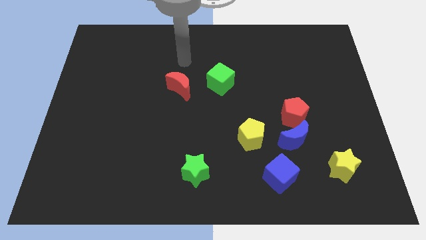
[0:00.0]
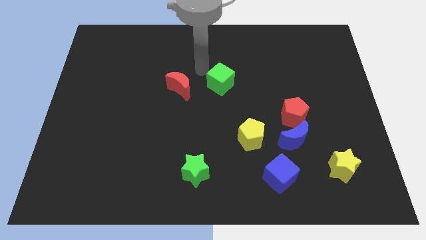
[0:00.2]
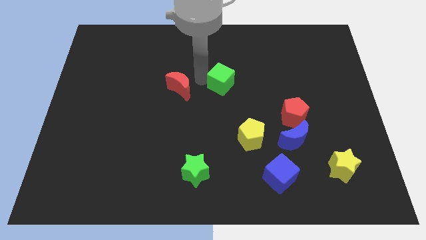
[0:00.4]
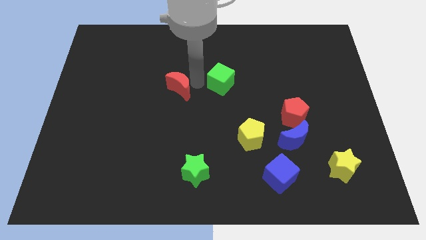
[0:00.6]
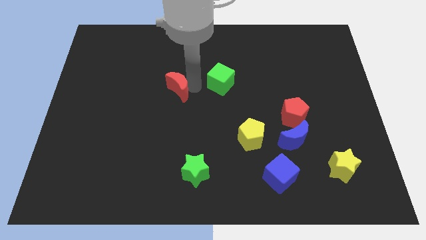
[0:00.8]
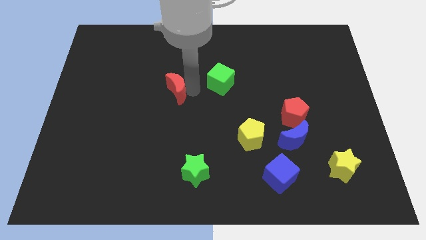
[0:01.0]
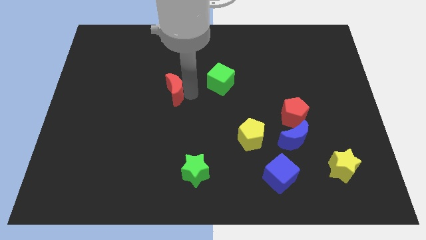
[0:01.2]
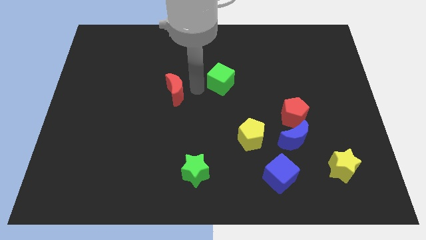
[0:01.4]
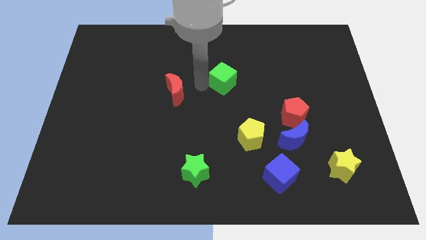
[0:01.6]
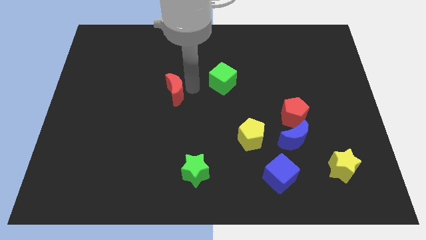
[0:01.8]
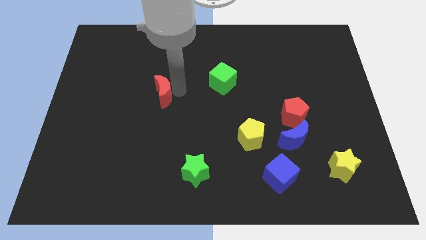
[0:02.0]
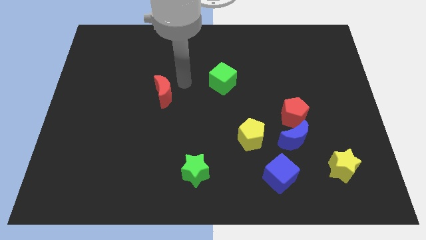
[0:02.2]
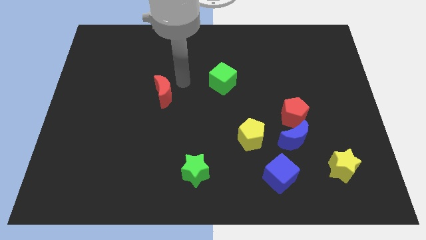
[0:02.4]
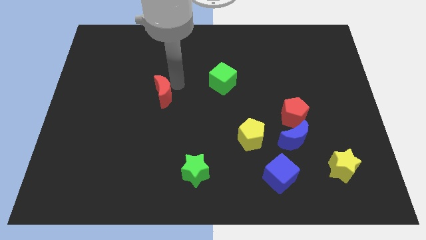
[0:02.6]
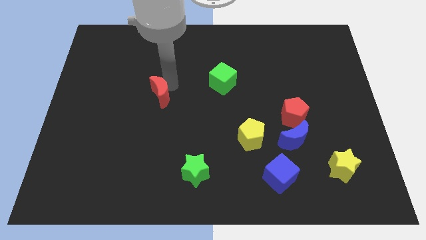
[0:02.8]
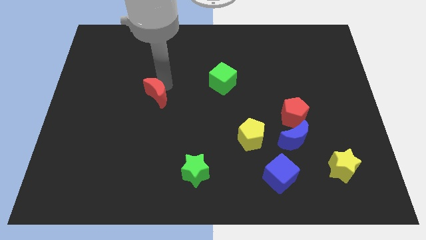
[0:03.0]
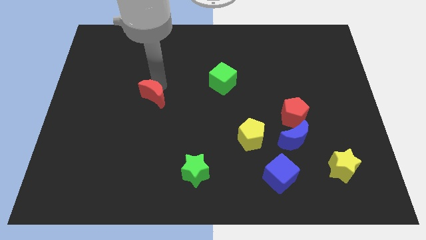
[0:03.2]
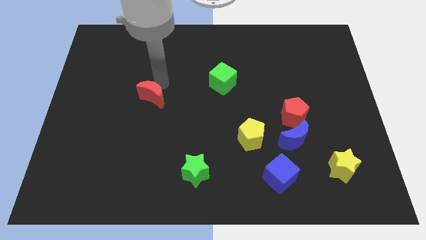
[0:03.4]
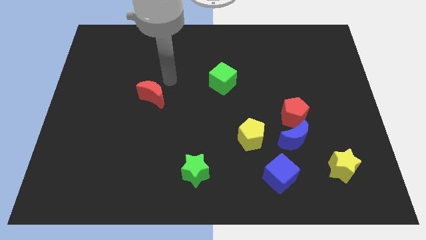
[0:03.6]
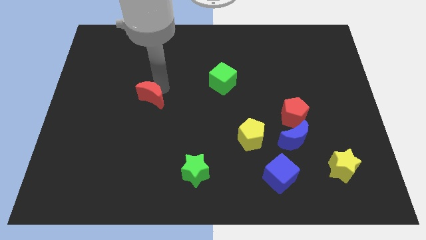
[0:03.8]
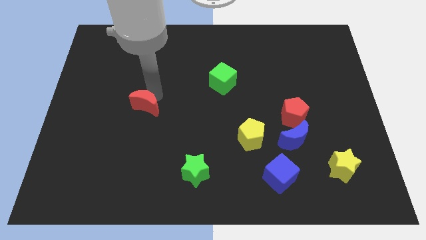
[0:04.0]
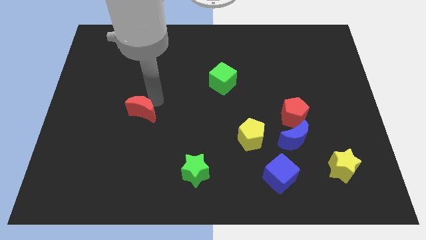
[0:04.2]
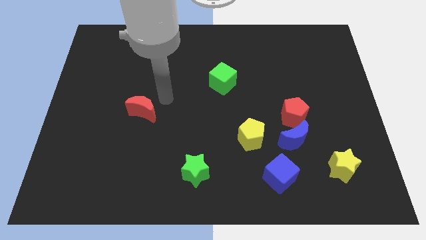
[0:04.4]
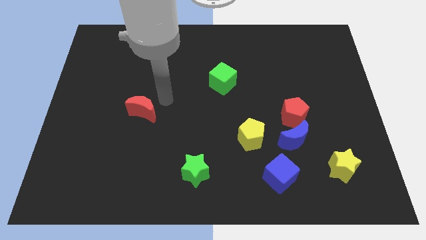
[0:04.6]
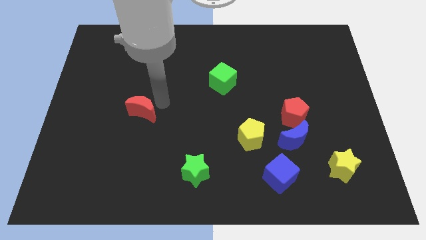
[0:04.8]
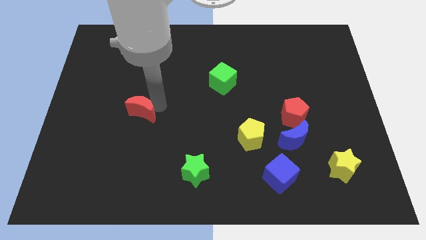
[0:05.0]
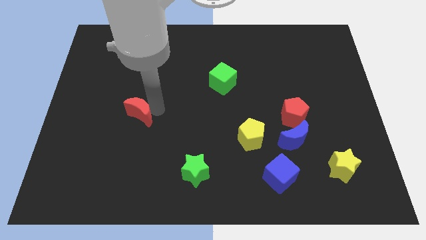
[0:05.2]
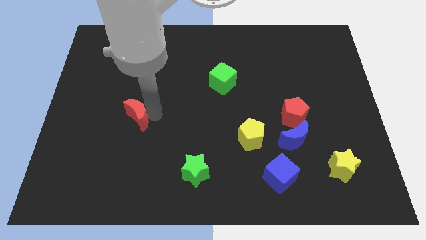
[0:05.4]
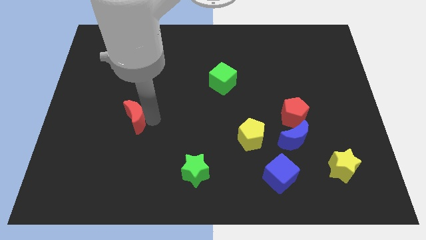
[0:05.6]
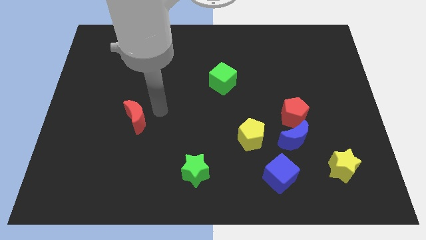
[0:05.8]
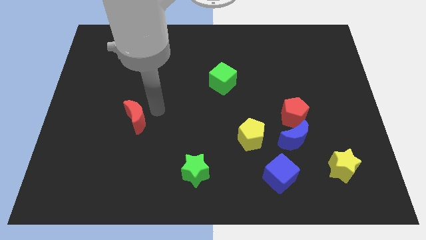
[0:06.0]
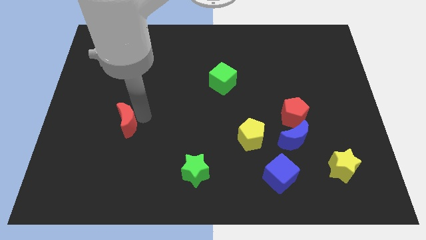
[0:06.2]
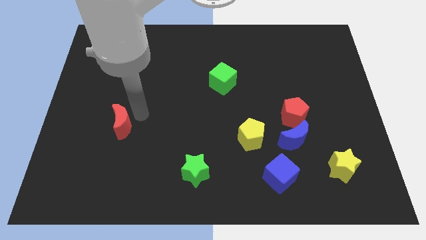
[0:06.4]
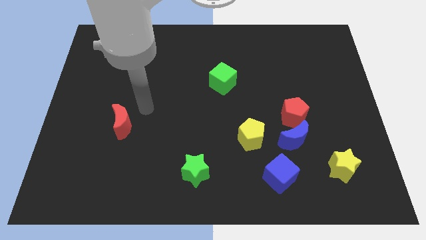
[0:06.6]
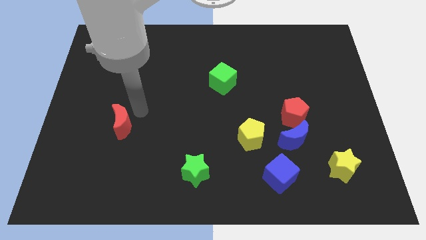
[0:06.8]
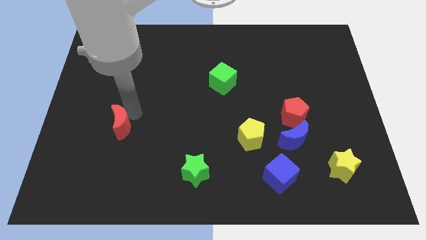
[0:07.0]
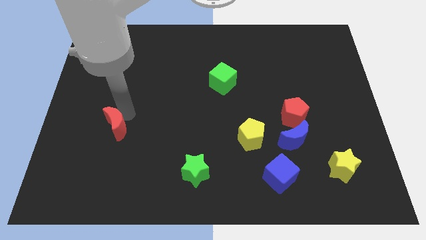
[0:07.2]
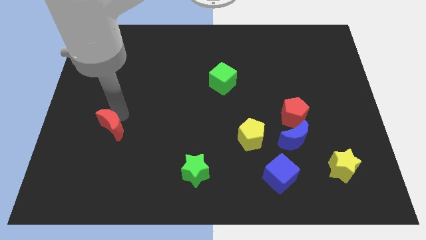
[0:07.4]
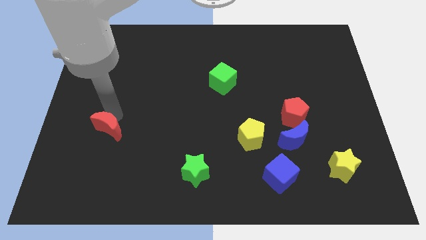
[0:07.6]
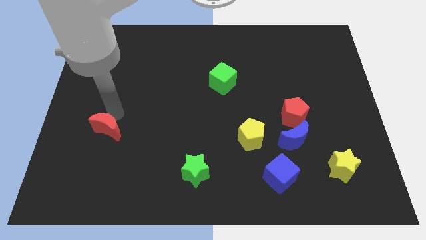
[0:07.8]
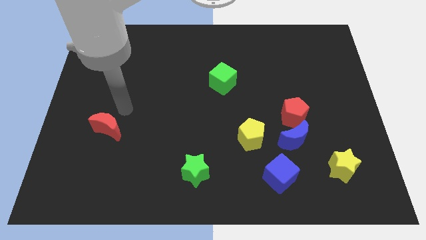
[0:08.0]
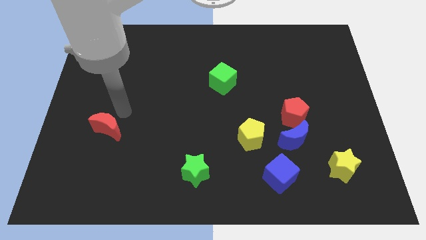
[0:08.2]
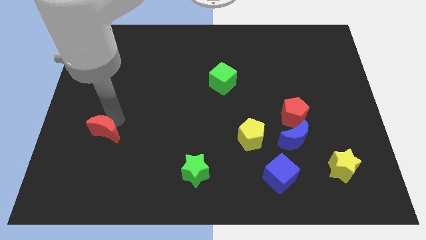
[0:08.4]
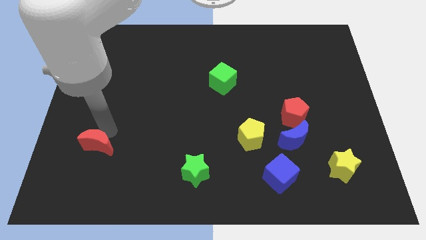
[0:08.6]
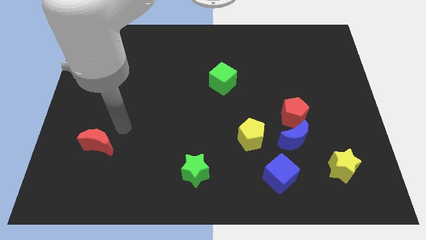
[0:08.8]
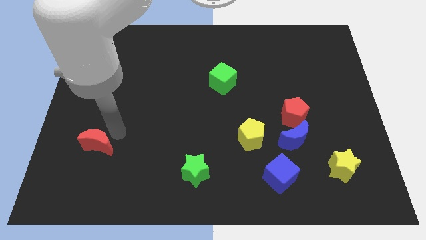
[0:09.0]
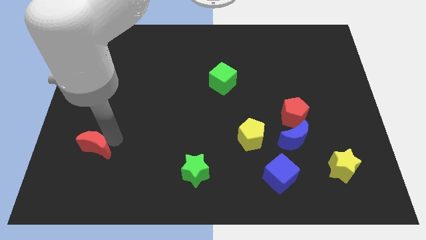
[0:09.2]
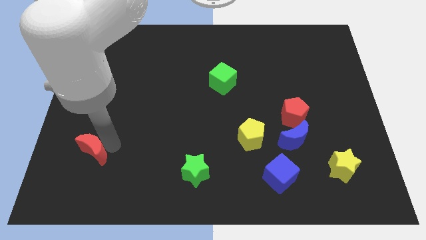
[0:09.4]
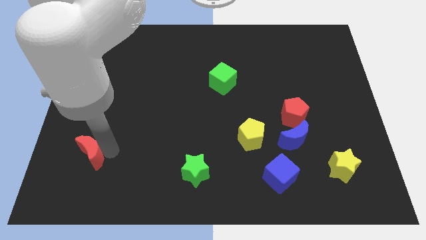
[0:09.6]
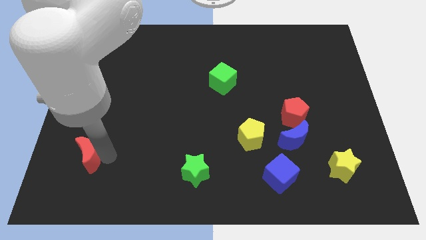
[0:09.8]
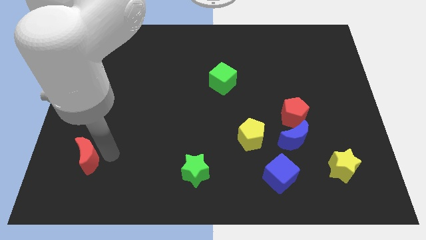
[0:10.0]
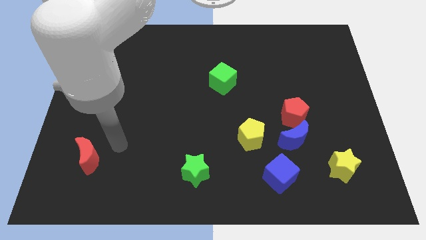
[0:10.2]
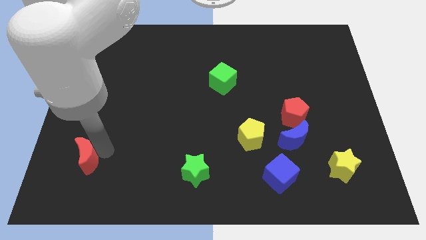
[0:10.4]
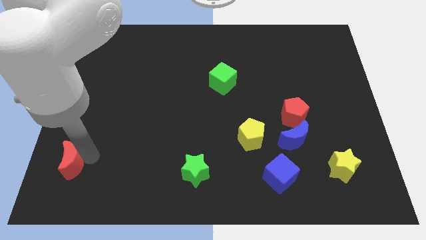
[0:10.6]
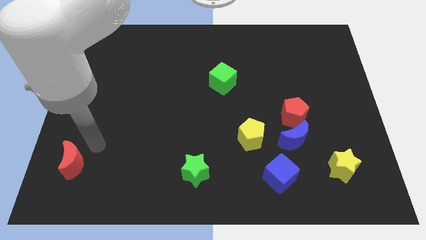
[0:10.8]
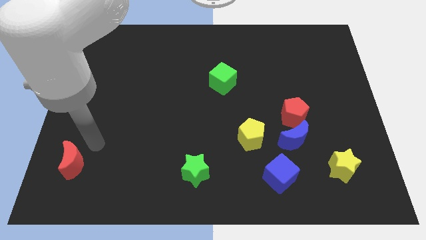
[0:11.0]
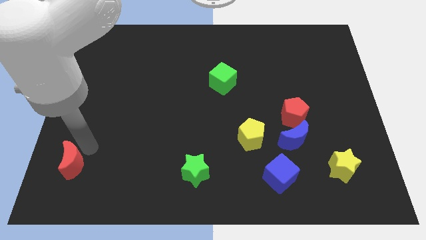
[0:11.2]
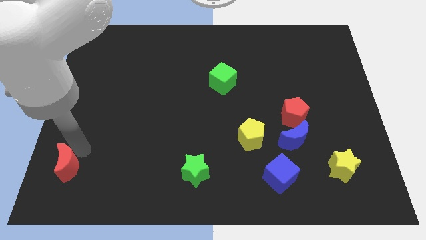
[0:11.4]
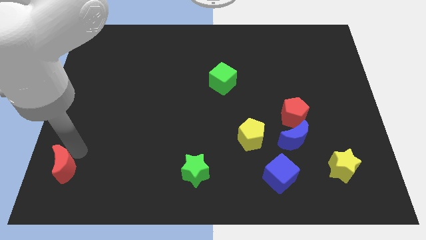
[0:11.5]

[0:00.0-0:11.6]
move the red moon to the lower left corner
